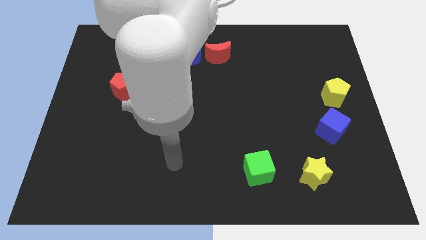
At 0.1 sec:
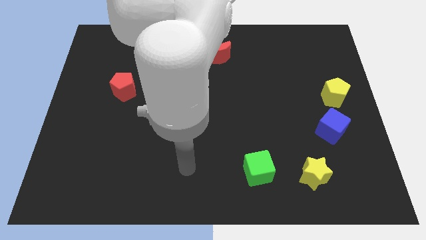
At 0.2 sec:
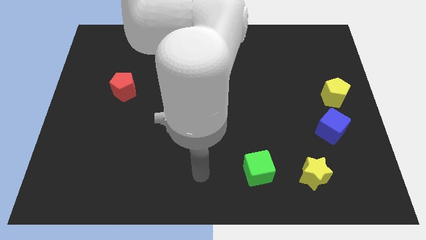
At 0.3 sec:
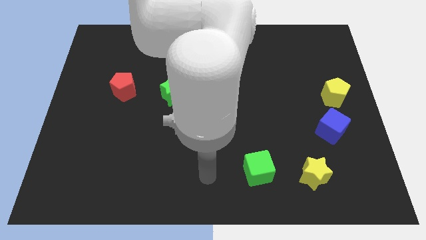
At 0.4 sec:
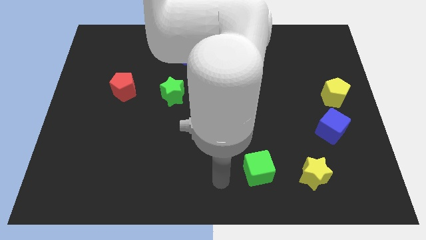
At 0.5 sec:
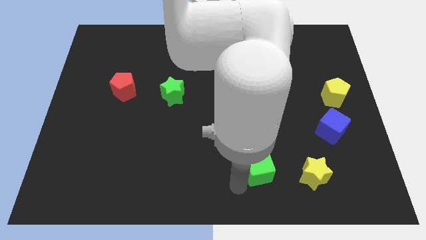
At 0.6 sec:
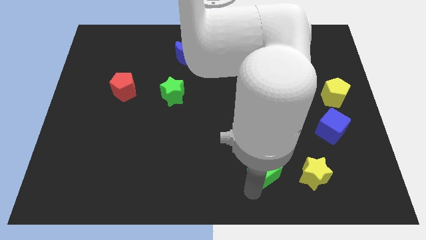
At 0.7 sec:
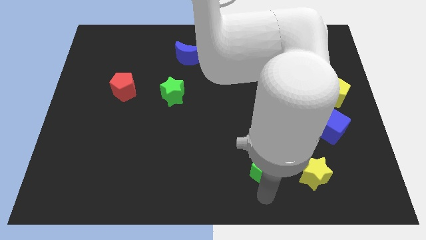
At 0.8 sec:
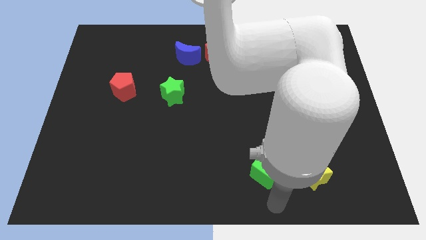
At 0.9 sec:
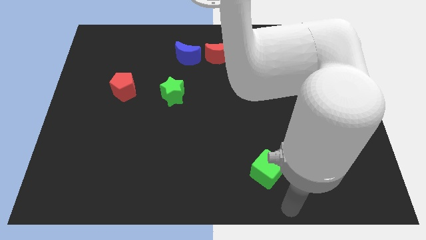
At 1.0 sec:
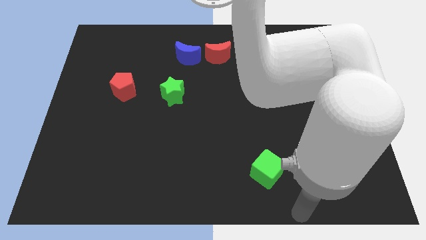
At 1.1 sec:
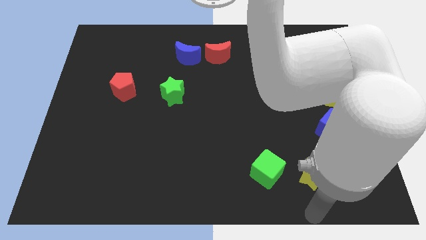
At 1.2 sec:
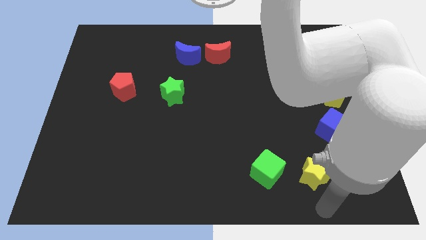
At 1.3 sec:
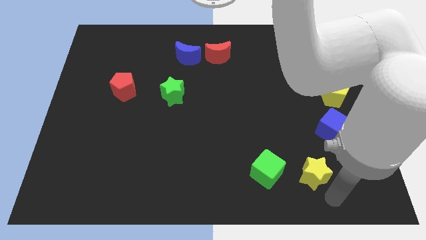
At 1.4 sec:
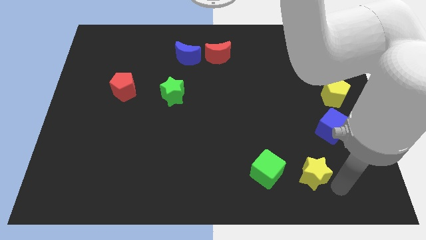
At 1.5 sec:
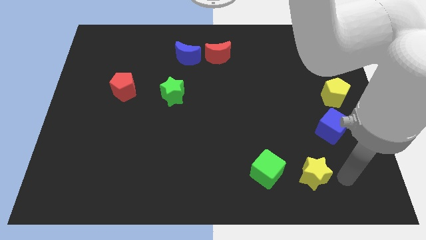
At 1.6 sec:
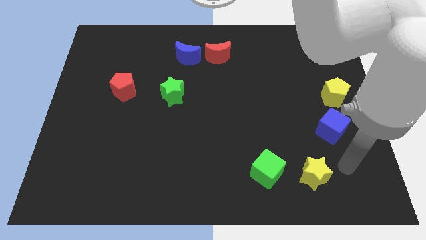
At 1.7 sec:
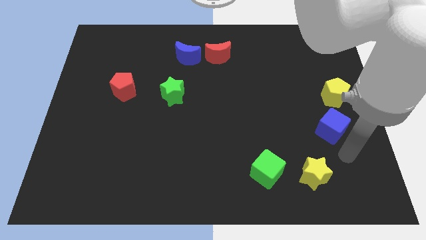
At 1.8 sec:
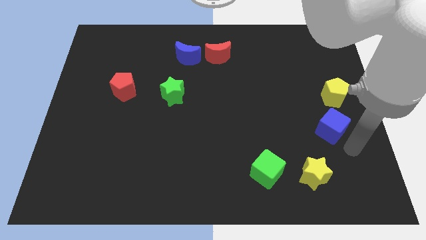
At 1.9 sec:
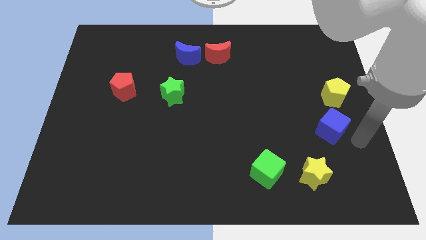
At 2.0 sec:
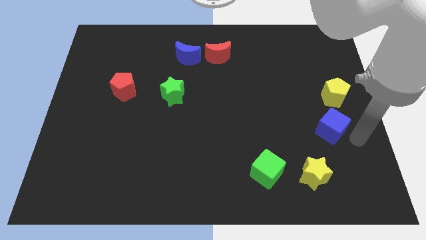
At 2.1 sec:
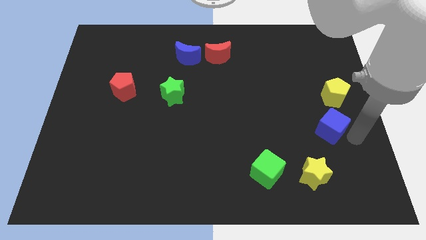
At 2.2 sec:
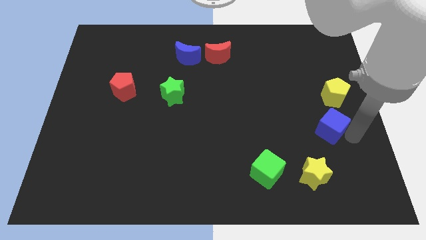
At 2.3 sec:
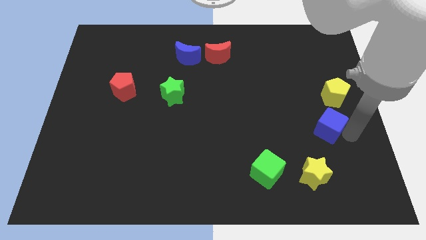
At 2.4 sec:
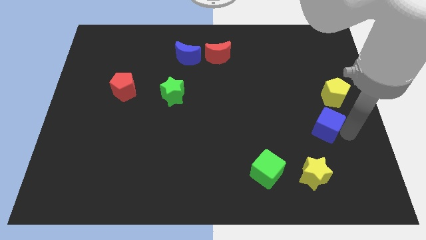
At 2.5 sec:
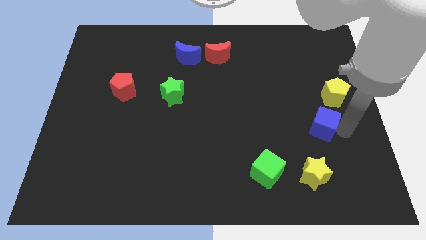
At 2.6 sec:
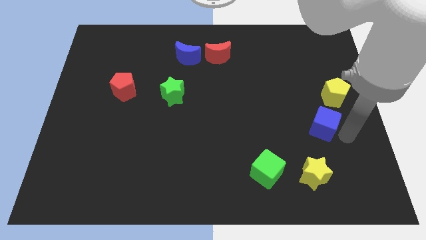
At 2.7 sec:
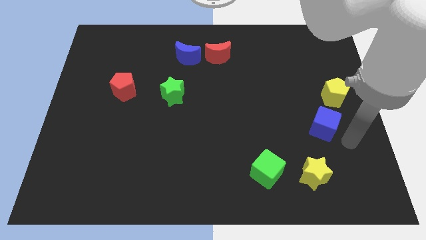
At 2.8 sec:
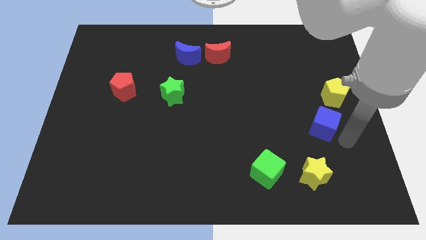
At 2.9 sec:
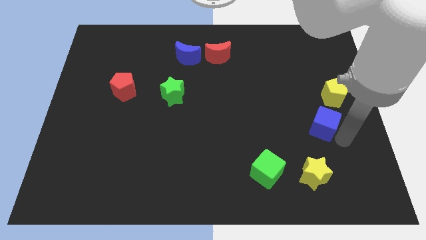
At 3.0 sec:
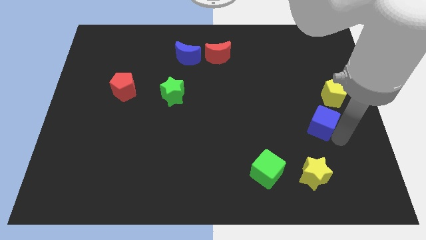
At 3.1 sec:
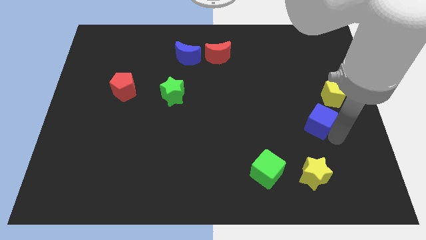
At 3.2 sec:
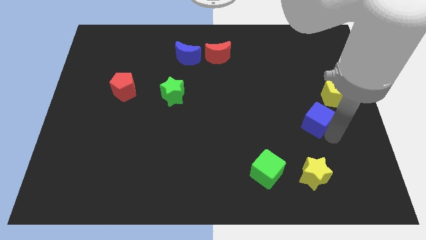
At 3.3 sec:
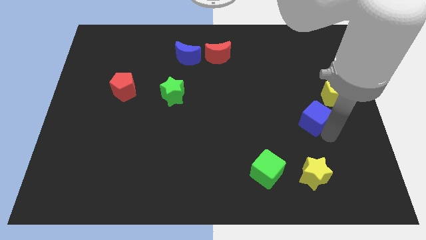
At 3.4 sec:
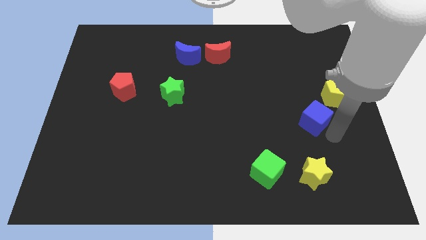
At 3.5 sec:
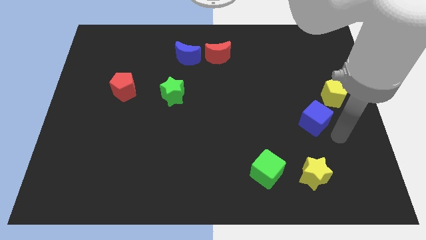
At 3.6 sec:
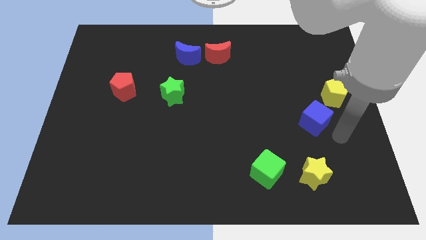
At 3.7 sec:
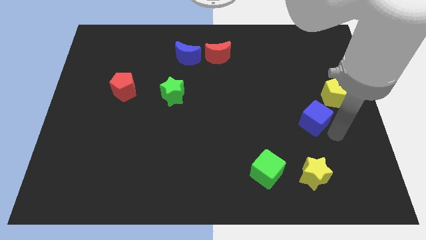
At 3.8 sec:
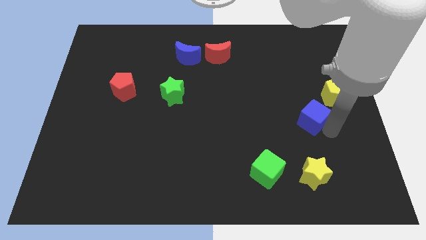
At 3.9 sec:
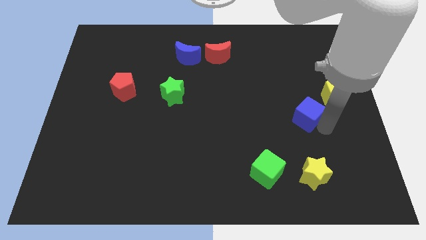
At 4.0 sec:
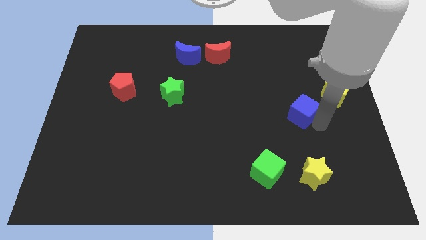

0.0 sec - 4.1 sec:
slightly push the blue cube up and left diagonally

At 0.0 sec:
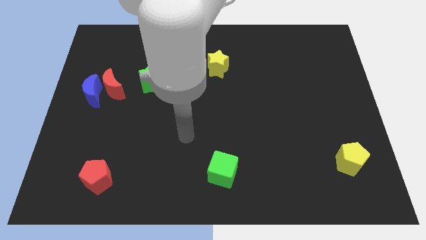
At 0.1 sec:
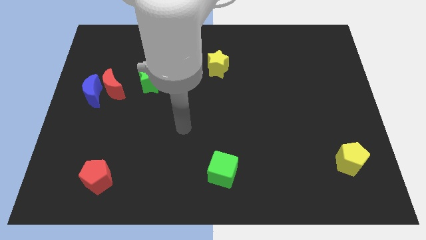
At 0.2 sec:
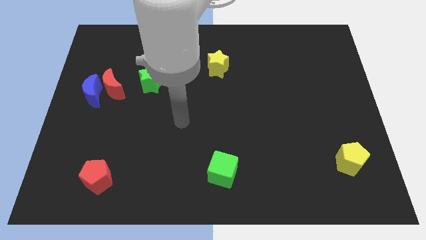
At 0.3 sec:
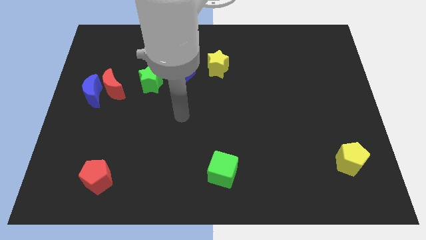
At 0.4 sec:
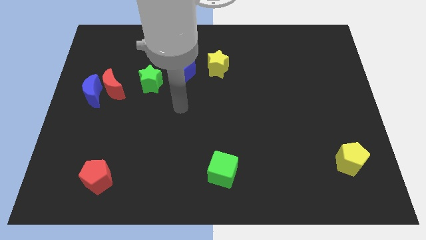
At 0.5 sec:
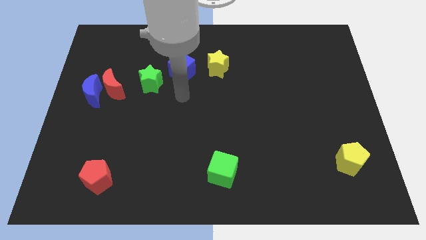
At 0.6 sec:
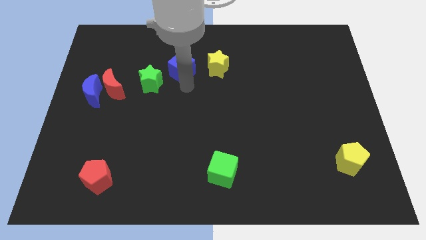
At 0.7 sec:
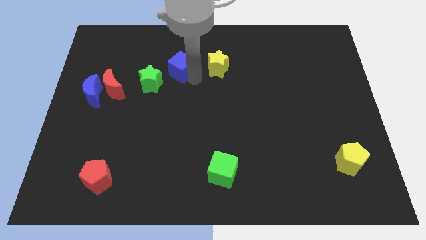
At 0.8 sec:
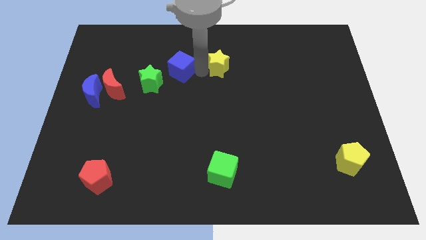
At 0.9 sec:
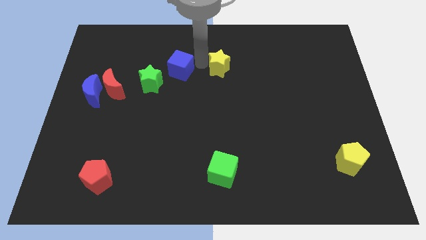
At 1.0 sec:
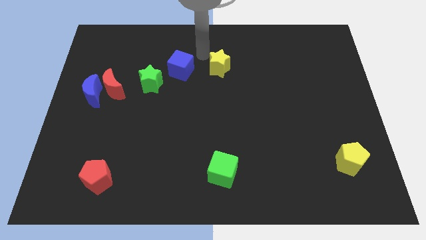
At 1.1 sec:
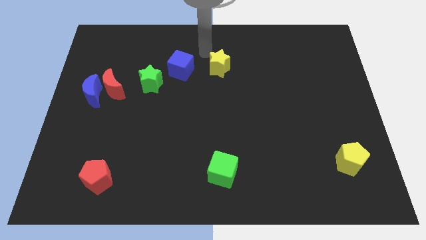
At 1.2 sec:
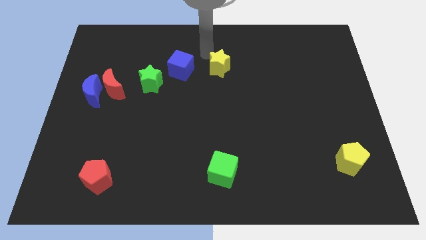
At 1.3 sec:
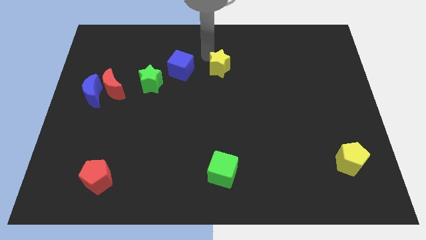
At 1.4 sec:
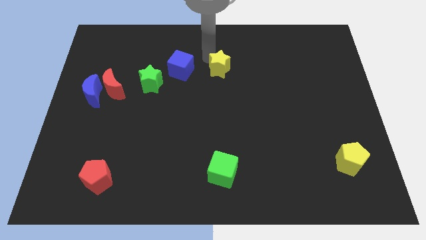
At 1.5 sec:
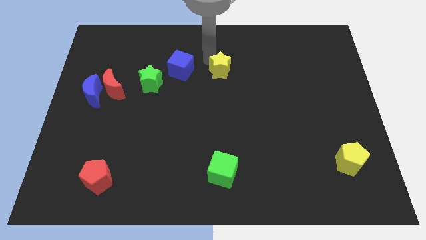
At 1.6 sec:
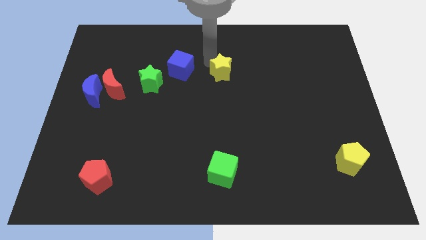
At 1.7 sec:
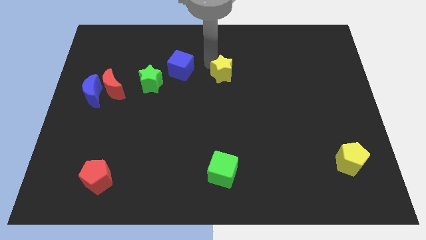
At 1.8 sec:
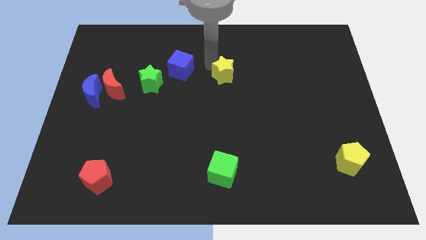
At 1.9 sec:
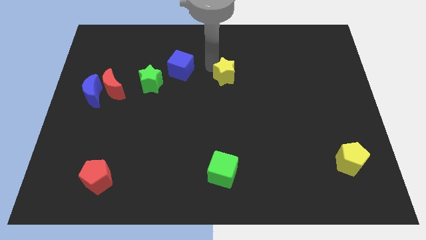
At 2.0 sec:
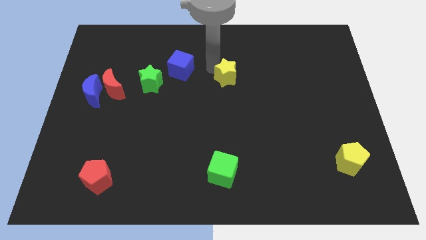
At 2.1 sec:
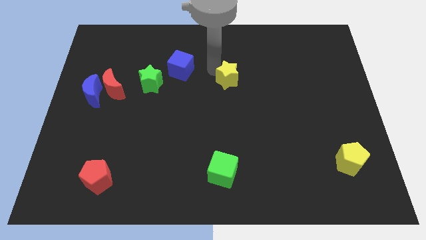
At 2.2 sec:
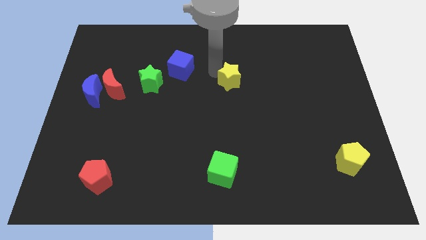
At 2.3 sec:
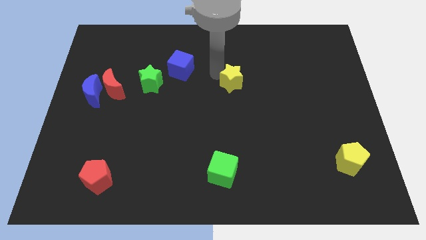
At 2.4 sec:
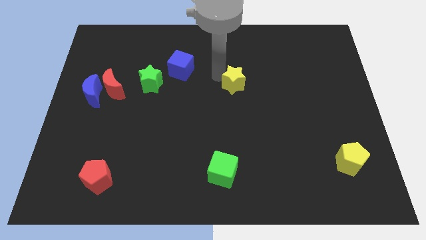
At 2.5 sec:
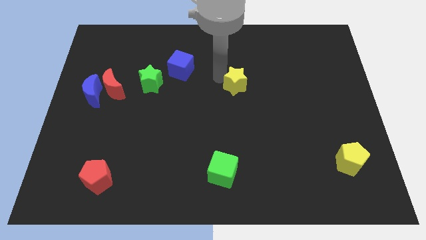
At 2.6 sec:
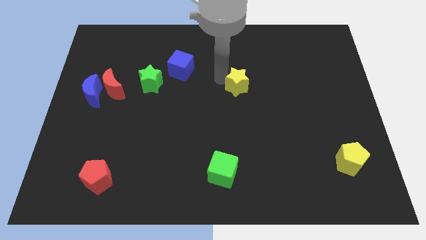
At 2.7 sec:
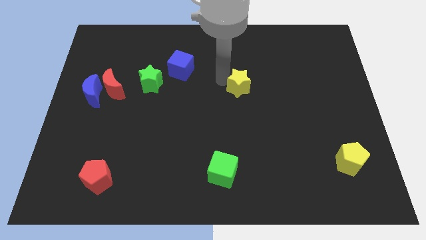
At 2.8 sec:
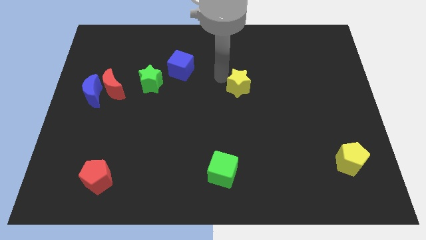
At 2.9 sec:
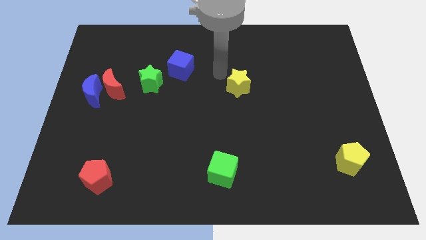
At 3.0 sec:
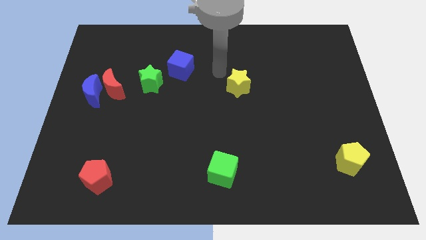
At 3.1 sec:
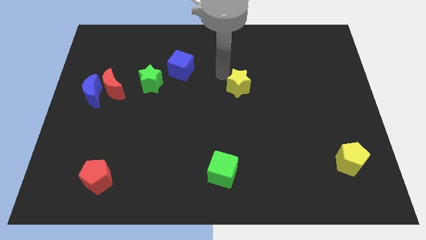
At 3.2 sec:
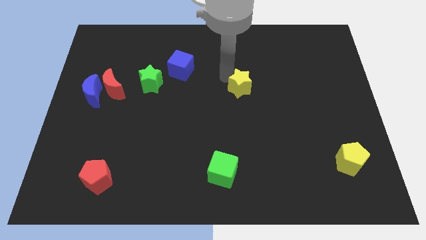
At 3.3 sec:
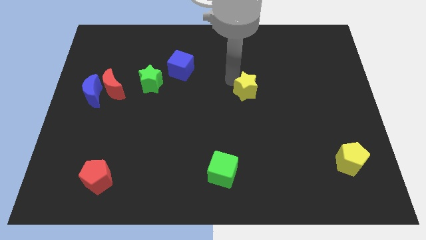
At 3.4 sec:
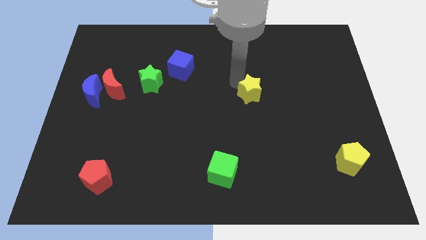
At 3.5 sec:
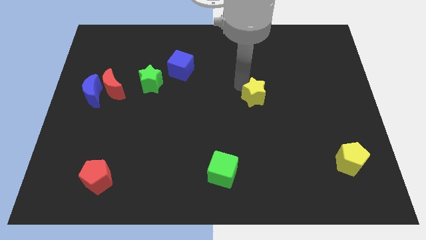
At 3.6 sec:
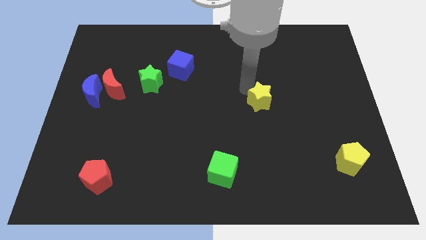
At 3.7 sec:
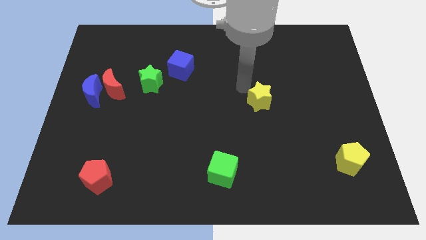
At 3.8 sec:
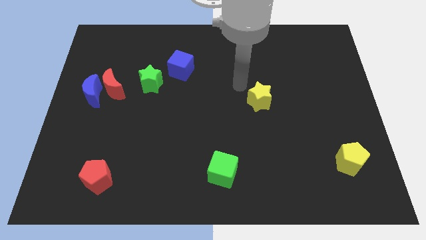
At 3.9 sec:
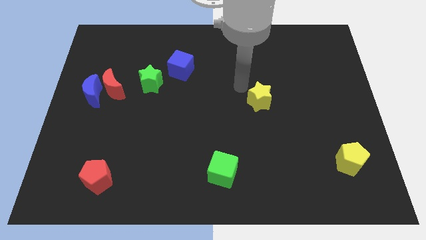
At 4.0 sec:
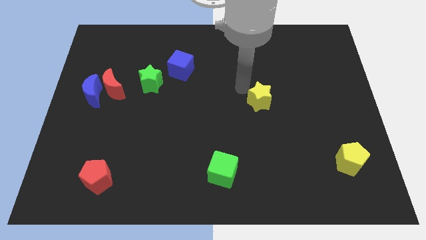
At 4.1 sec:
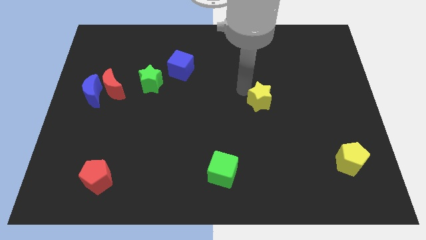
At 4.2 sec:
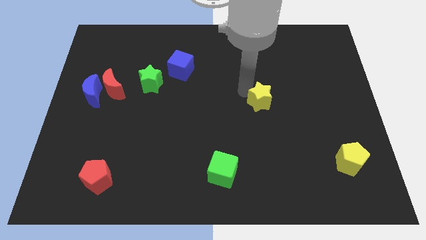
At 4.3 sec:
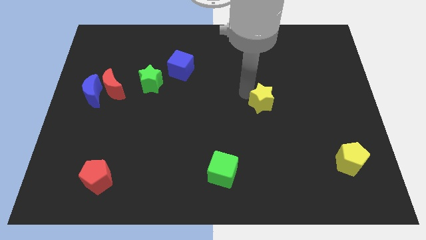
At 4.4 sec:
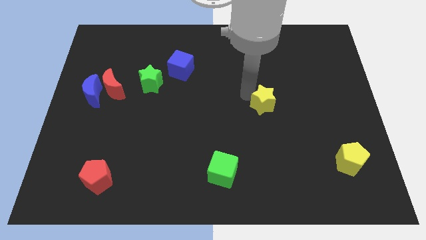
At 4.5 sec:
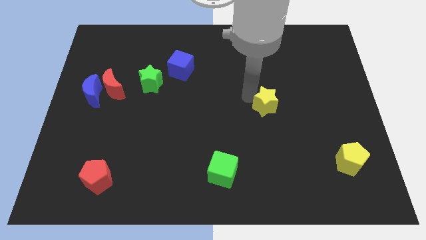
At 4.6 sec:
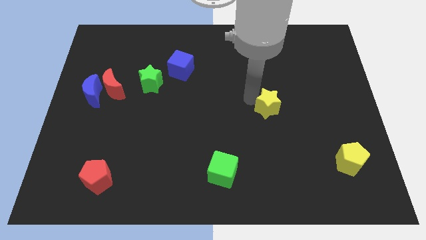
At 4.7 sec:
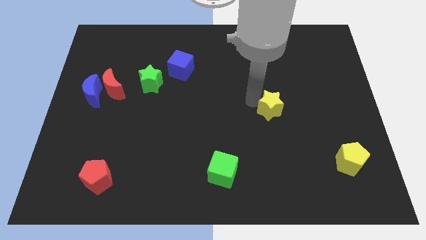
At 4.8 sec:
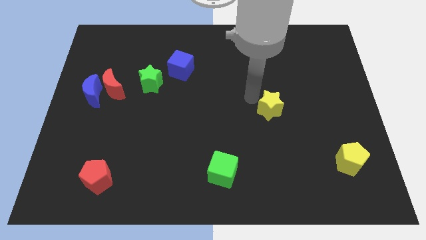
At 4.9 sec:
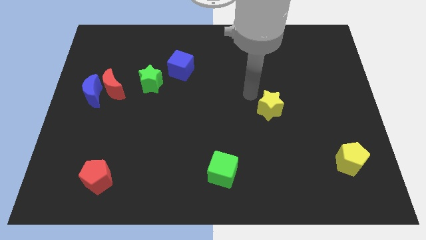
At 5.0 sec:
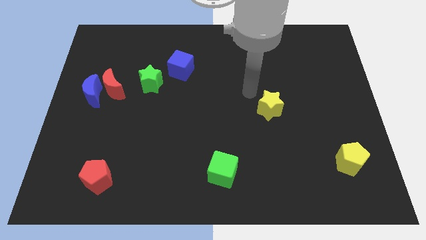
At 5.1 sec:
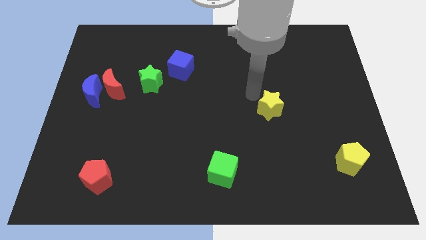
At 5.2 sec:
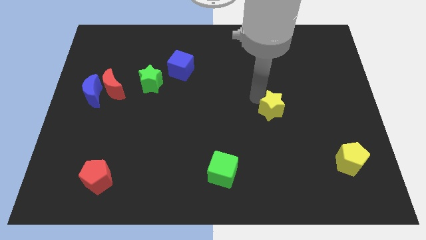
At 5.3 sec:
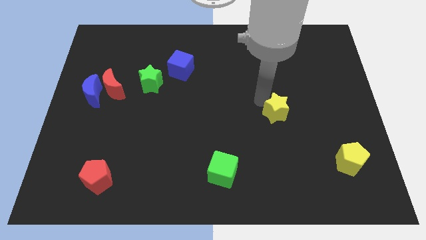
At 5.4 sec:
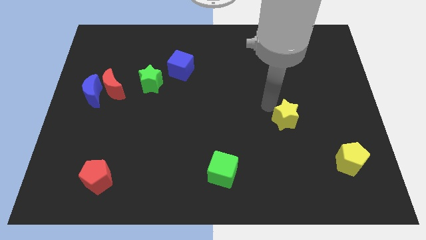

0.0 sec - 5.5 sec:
push the yellow star downwards and then right
